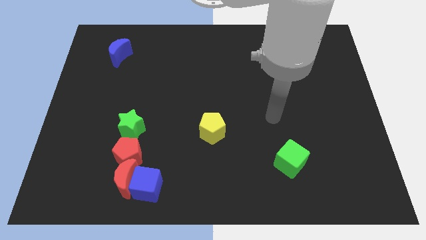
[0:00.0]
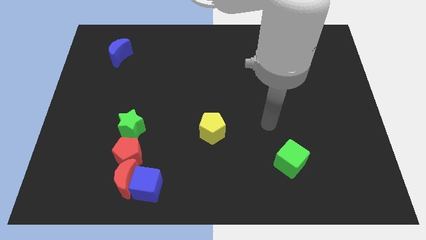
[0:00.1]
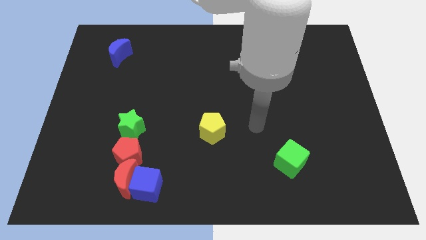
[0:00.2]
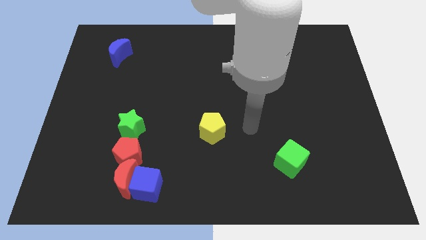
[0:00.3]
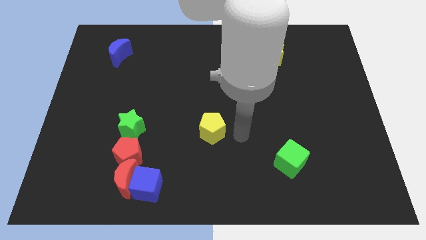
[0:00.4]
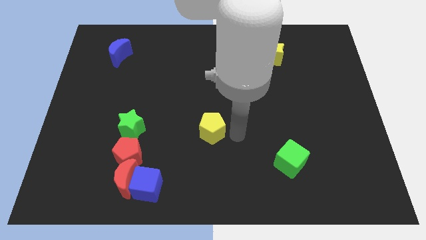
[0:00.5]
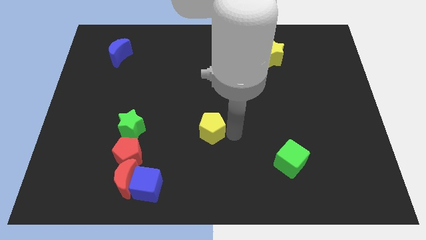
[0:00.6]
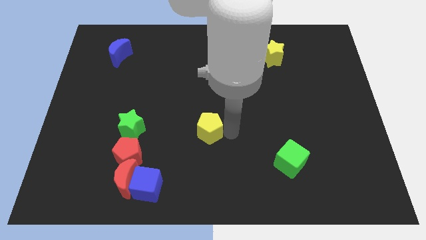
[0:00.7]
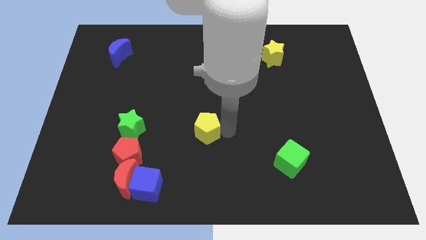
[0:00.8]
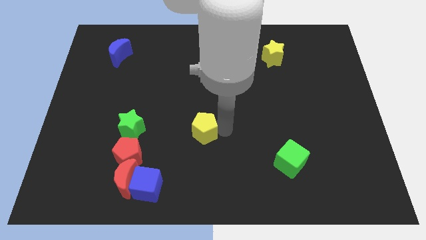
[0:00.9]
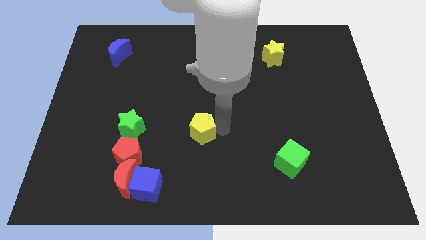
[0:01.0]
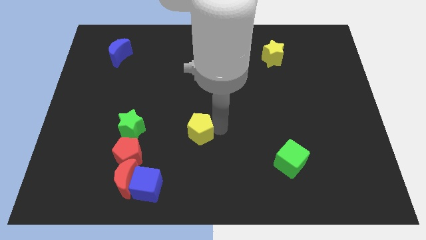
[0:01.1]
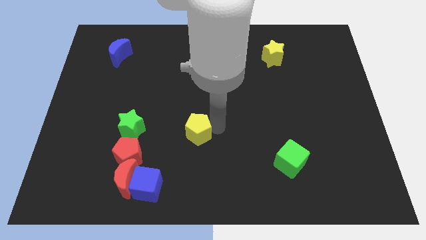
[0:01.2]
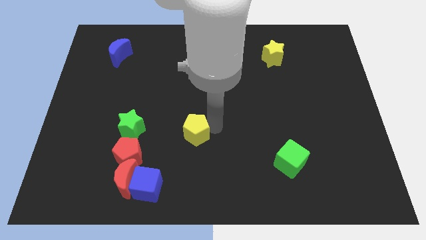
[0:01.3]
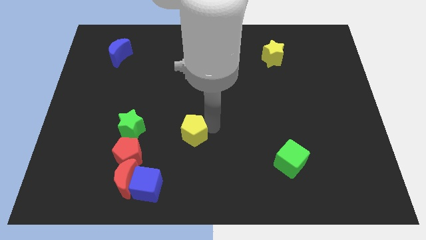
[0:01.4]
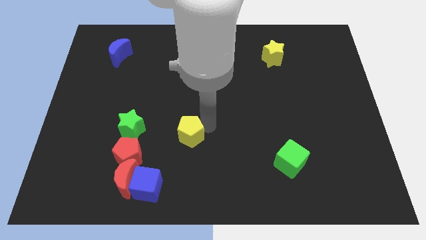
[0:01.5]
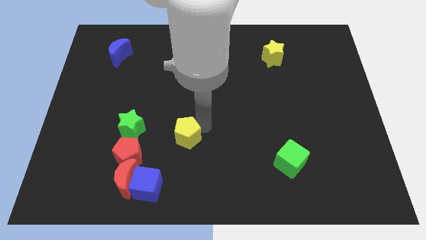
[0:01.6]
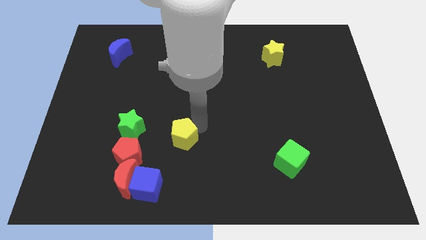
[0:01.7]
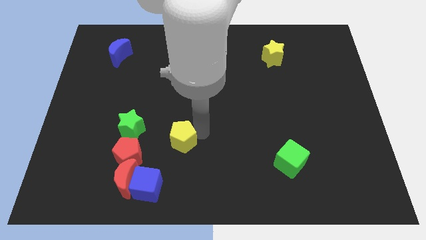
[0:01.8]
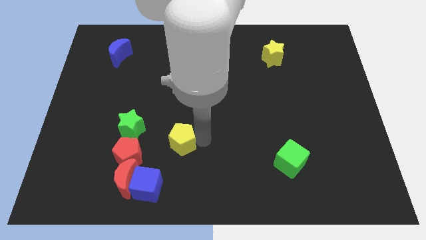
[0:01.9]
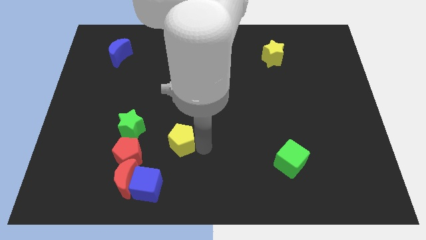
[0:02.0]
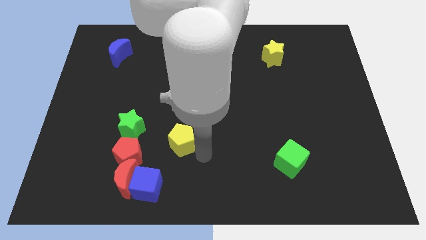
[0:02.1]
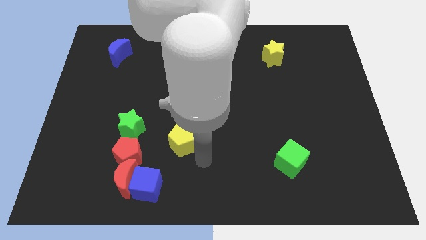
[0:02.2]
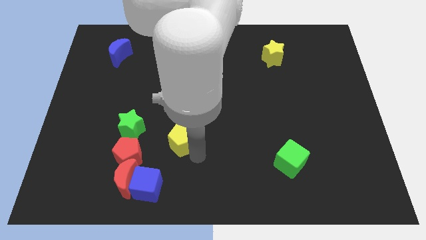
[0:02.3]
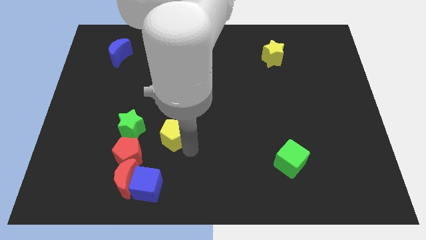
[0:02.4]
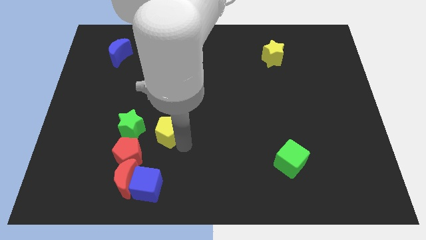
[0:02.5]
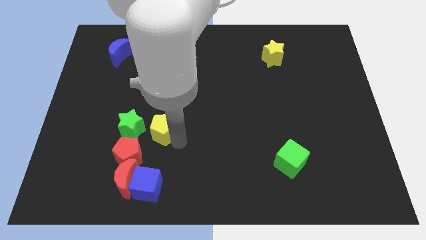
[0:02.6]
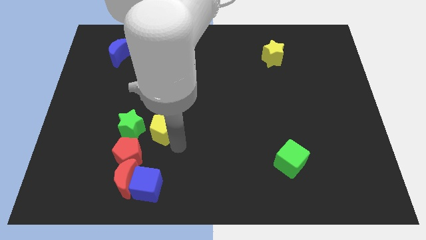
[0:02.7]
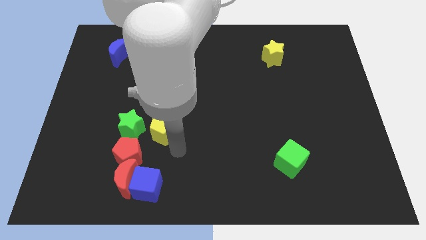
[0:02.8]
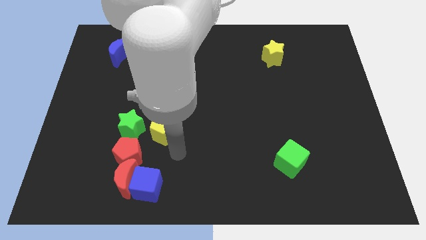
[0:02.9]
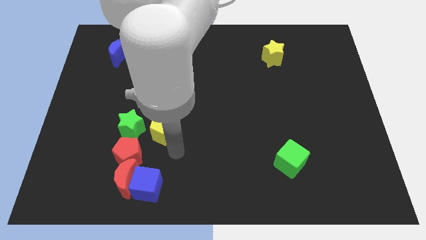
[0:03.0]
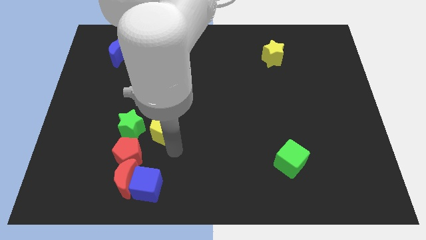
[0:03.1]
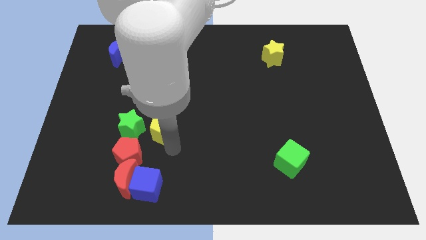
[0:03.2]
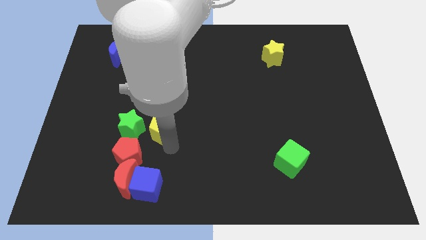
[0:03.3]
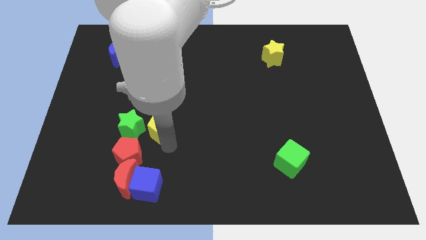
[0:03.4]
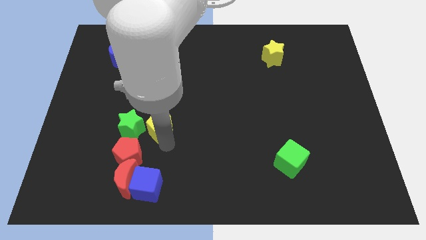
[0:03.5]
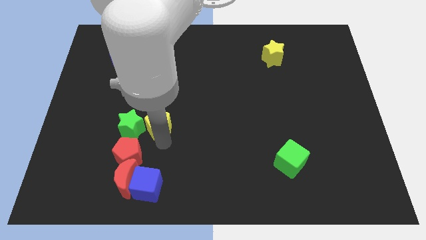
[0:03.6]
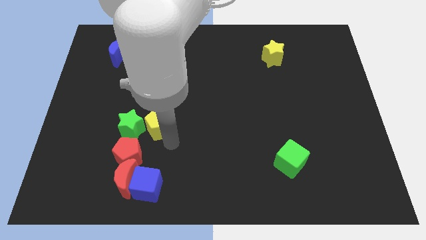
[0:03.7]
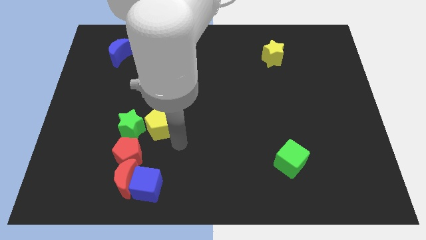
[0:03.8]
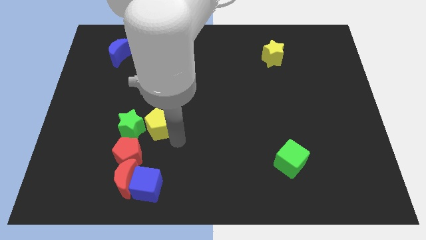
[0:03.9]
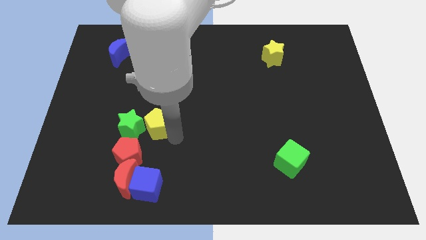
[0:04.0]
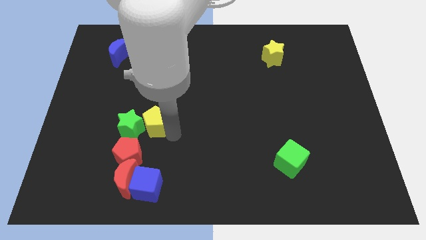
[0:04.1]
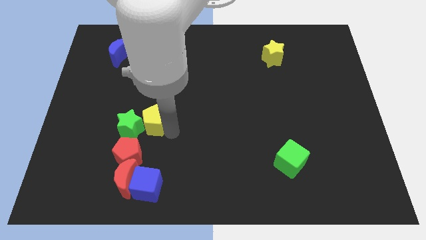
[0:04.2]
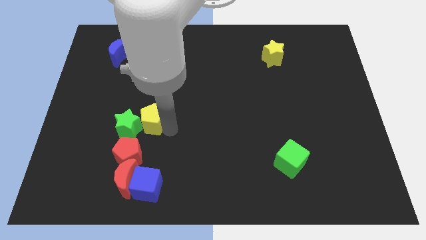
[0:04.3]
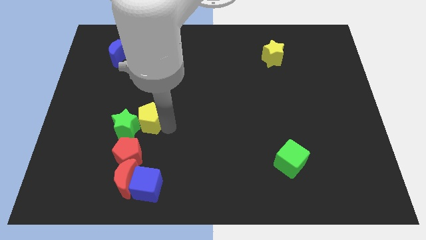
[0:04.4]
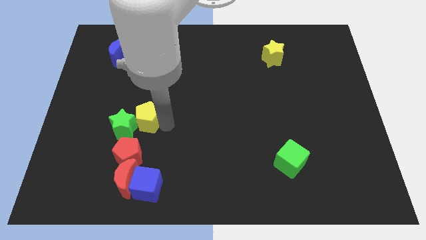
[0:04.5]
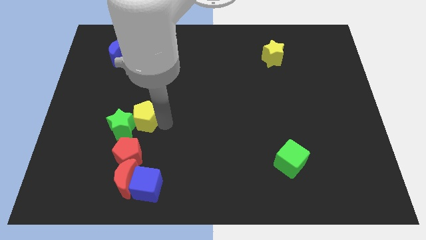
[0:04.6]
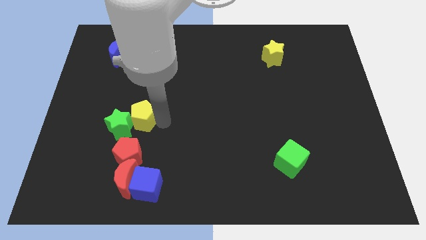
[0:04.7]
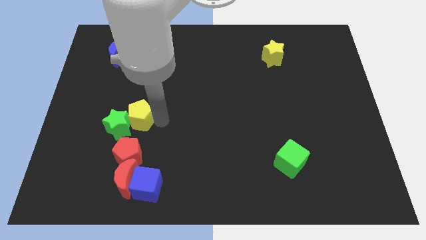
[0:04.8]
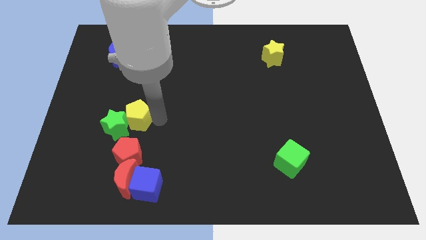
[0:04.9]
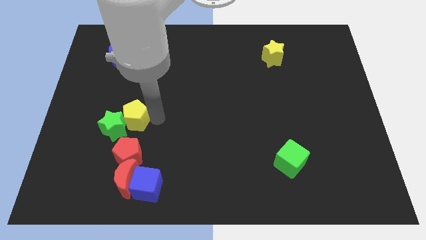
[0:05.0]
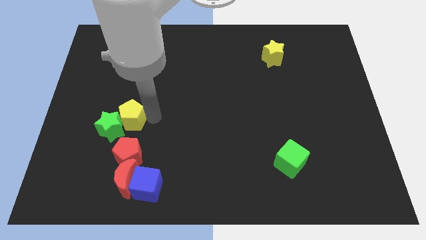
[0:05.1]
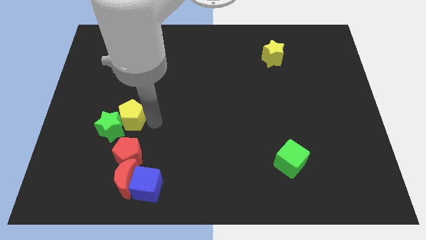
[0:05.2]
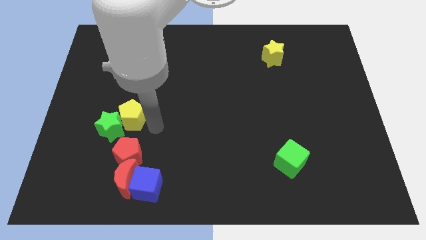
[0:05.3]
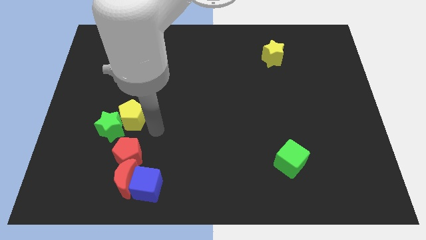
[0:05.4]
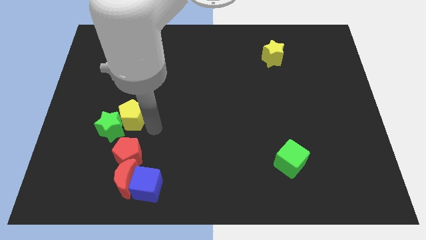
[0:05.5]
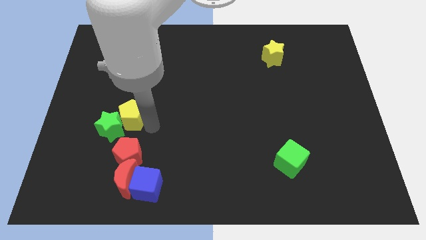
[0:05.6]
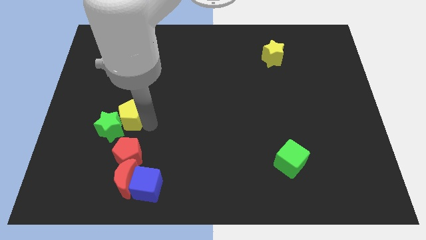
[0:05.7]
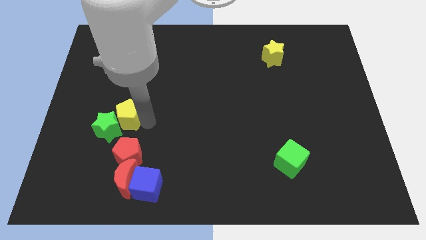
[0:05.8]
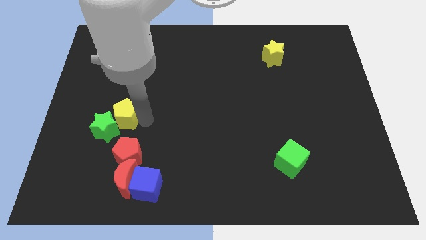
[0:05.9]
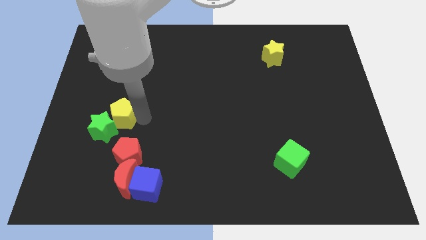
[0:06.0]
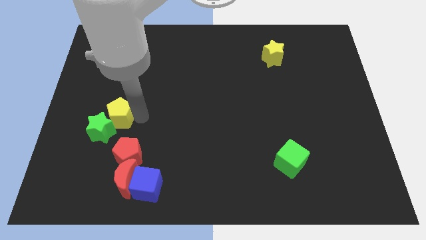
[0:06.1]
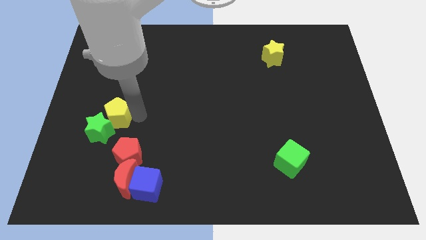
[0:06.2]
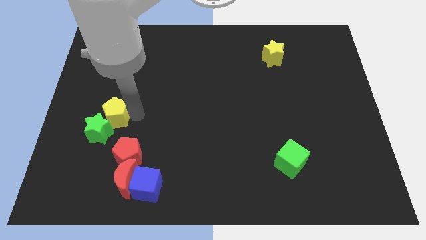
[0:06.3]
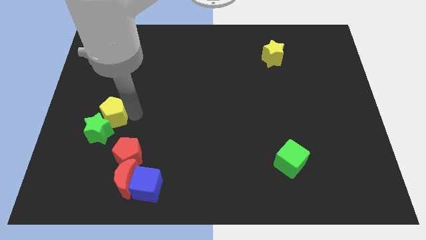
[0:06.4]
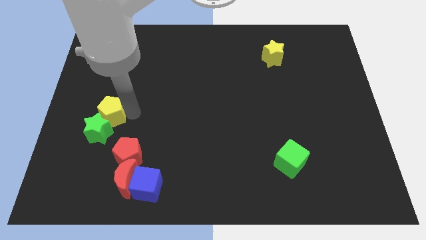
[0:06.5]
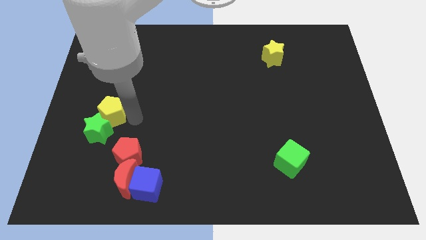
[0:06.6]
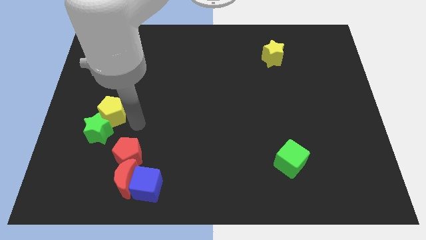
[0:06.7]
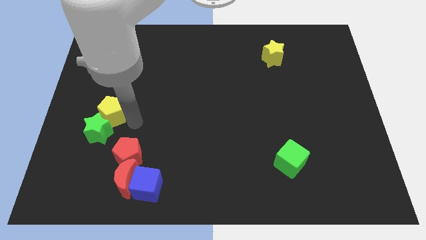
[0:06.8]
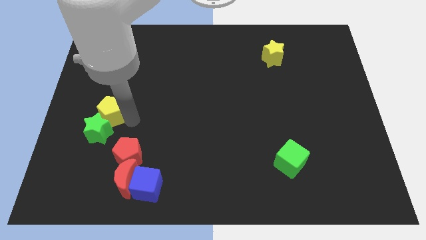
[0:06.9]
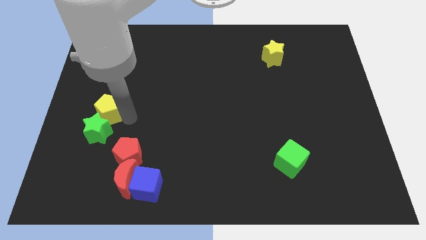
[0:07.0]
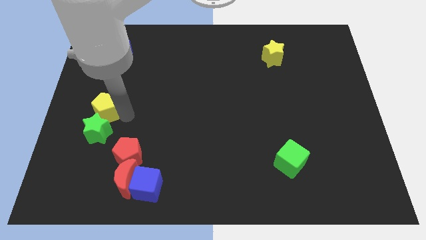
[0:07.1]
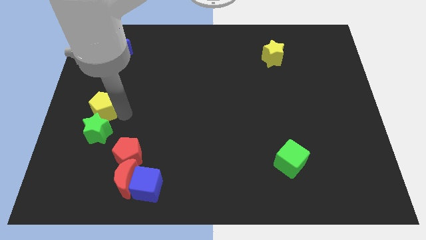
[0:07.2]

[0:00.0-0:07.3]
put the yellow pentagon to the center left
